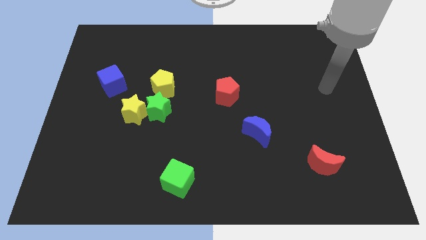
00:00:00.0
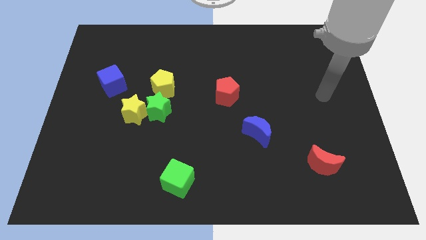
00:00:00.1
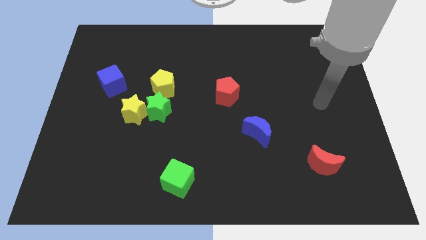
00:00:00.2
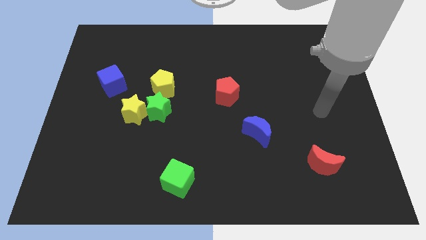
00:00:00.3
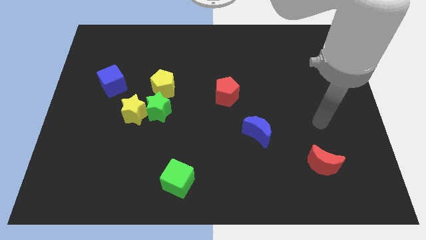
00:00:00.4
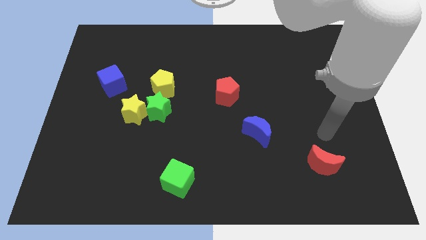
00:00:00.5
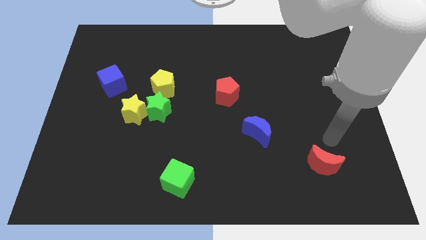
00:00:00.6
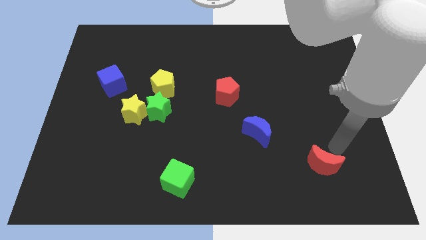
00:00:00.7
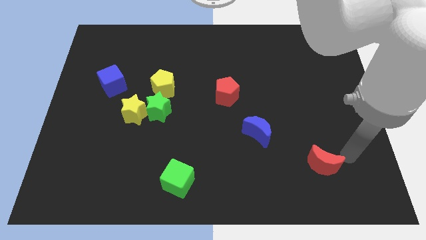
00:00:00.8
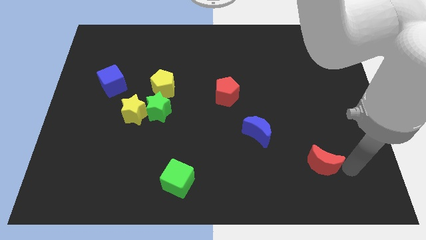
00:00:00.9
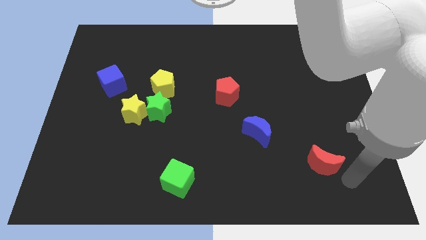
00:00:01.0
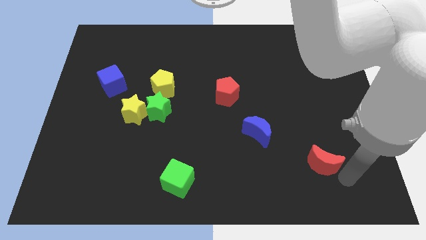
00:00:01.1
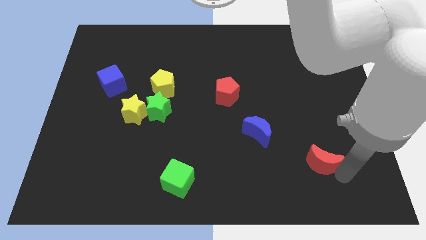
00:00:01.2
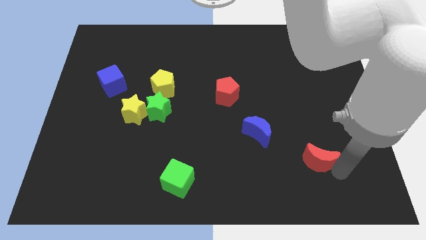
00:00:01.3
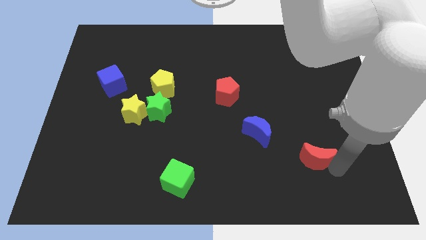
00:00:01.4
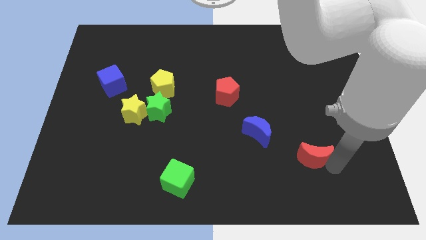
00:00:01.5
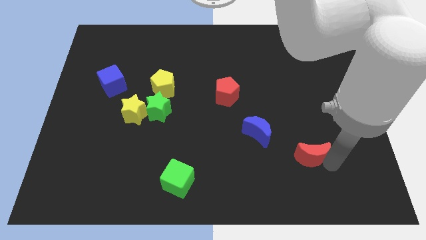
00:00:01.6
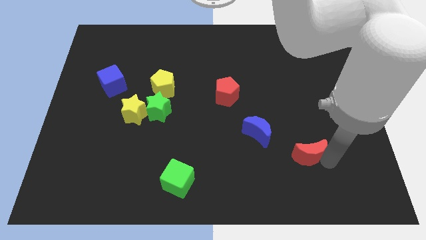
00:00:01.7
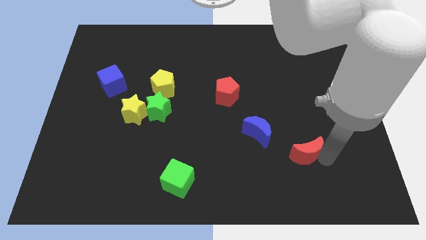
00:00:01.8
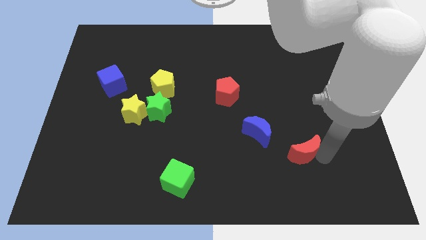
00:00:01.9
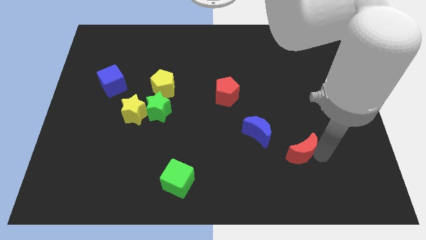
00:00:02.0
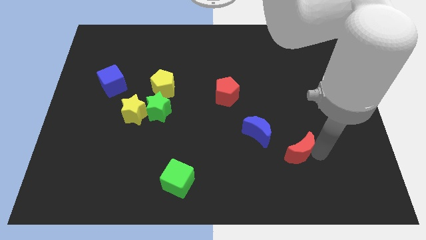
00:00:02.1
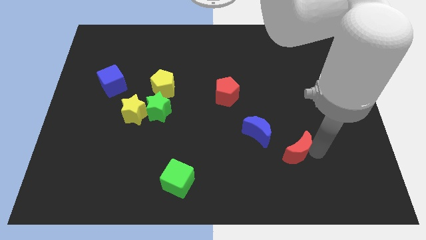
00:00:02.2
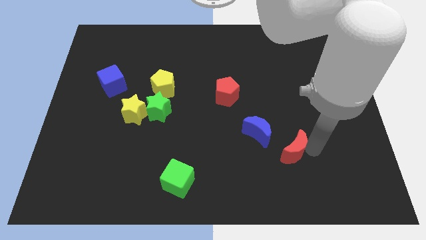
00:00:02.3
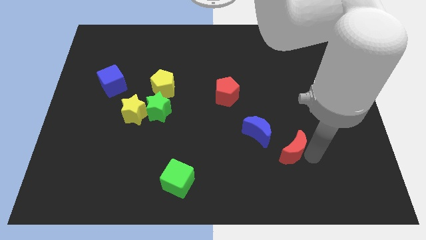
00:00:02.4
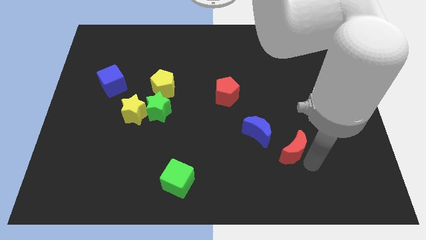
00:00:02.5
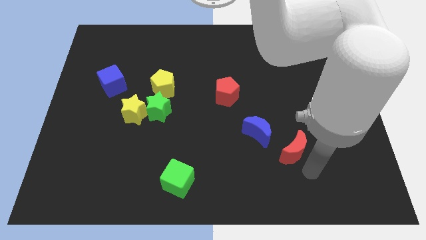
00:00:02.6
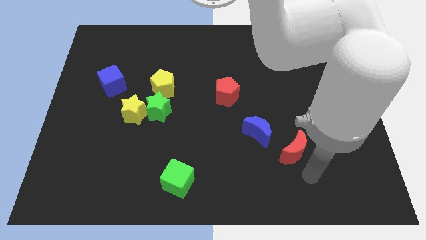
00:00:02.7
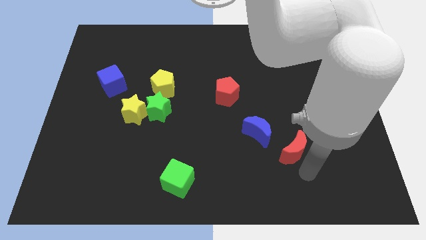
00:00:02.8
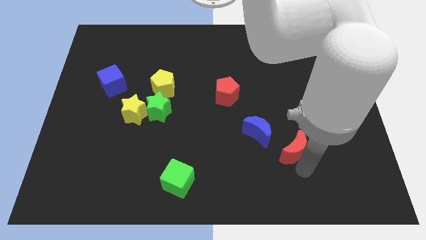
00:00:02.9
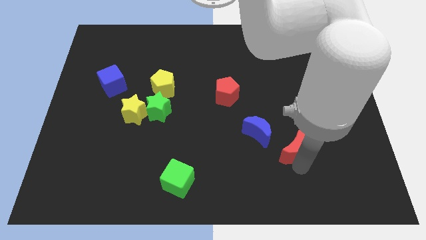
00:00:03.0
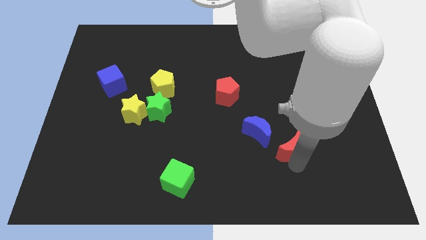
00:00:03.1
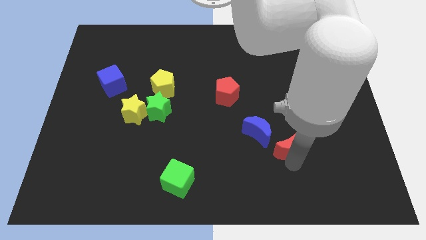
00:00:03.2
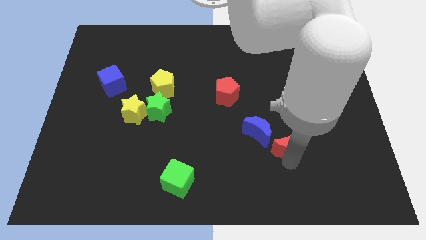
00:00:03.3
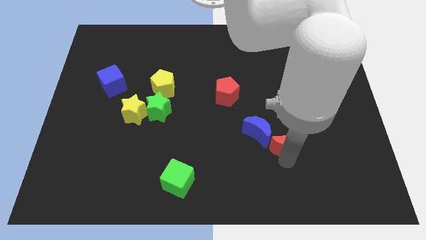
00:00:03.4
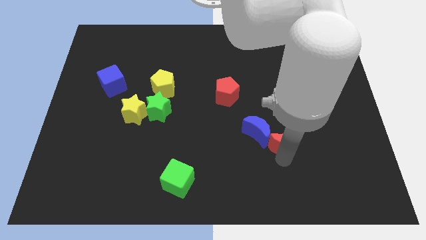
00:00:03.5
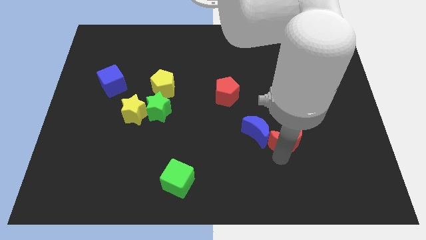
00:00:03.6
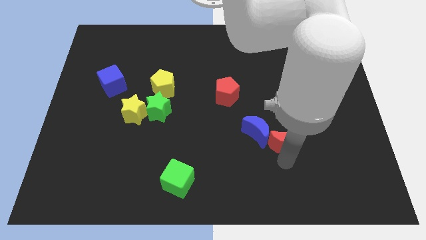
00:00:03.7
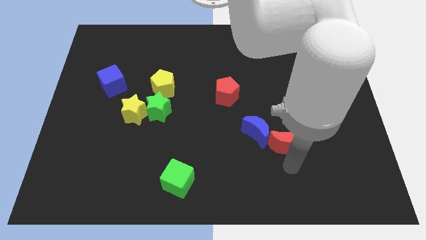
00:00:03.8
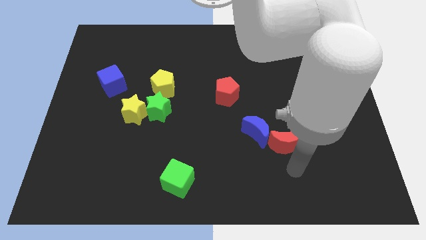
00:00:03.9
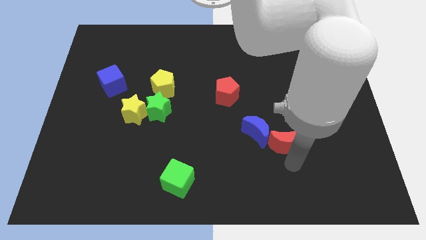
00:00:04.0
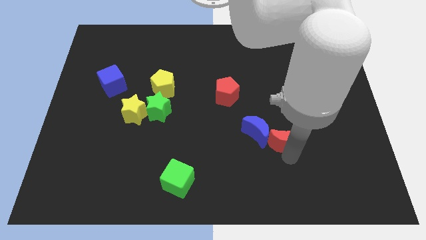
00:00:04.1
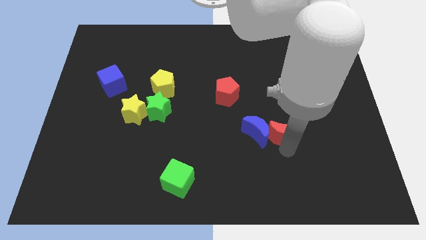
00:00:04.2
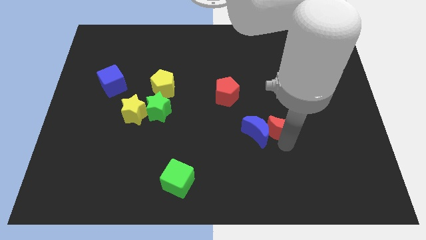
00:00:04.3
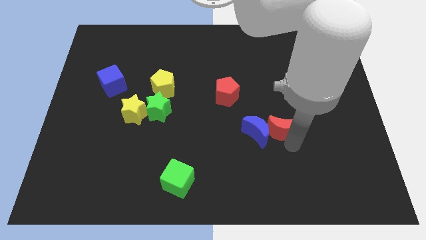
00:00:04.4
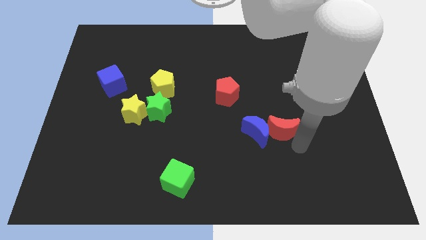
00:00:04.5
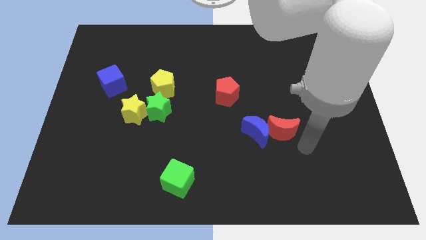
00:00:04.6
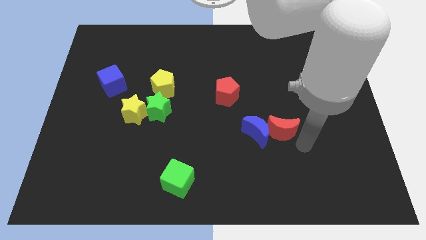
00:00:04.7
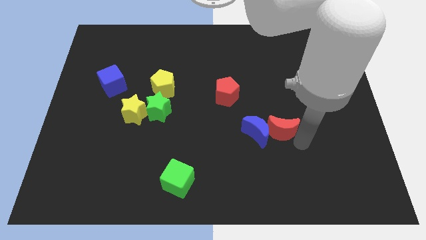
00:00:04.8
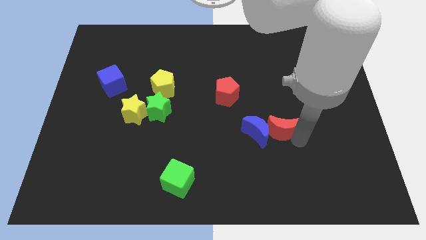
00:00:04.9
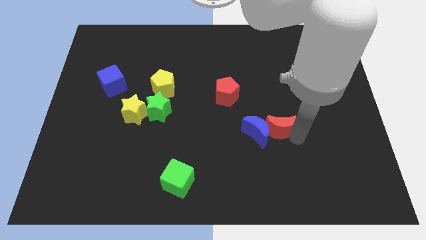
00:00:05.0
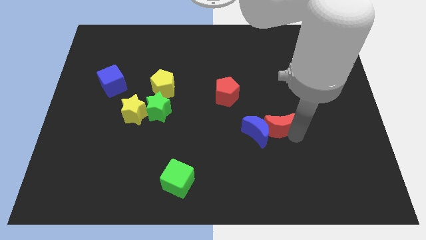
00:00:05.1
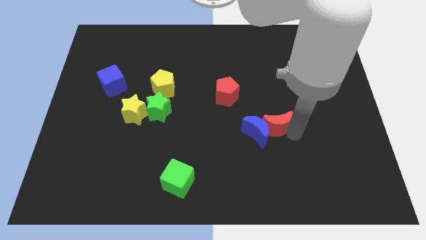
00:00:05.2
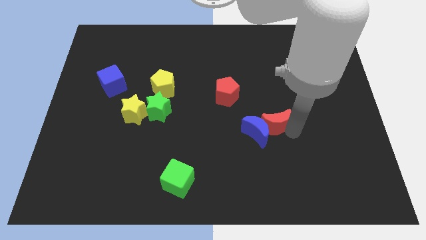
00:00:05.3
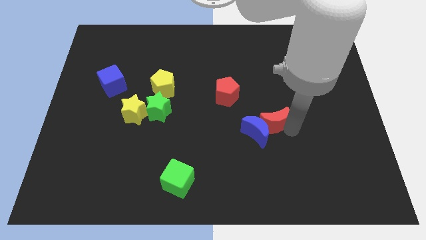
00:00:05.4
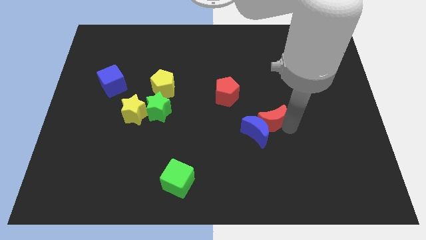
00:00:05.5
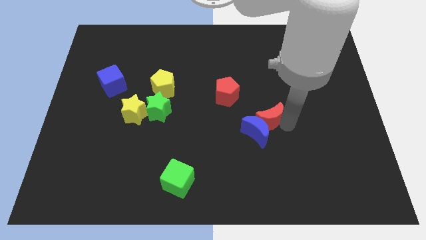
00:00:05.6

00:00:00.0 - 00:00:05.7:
slide the red moon to the bottom right of the red pentagon

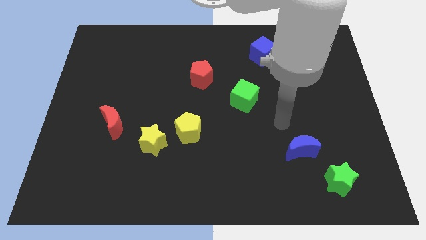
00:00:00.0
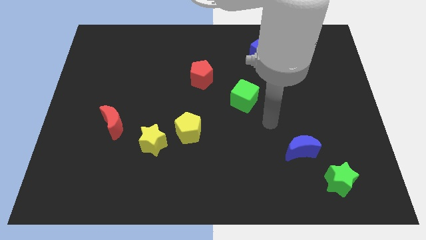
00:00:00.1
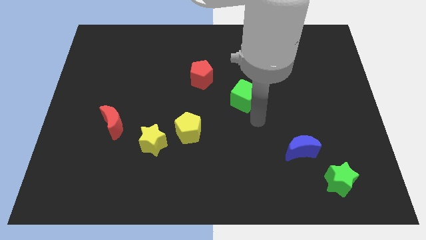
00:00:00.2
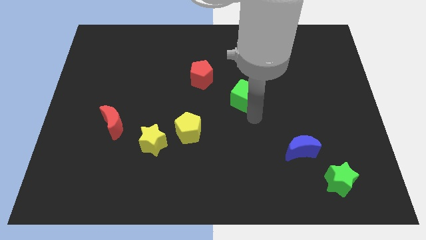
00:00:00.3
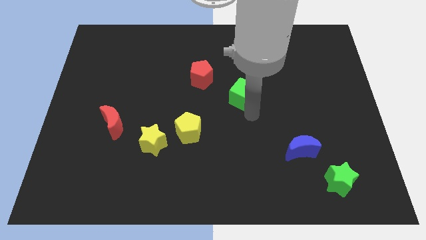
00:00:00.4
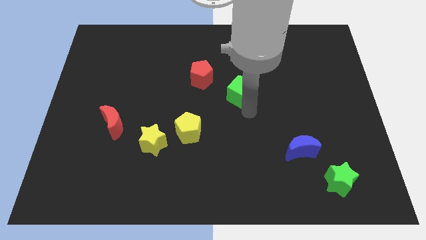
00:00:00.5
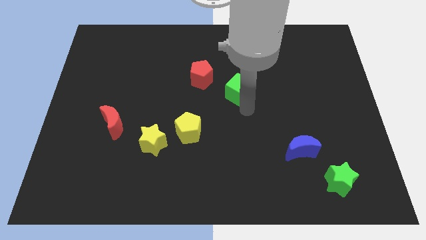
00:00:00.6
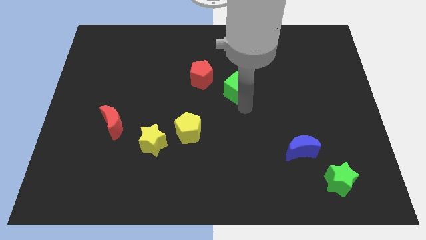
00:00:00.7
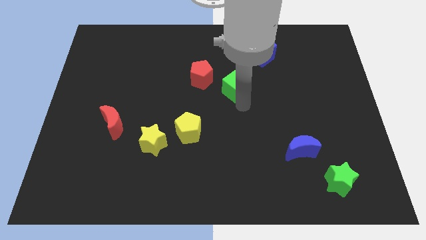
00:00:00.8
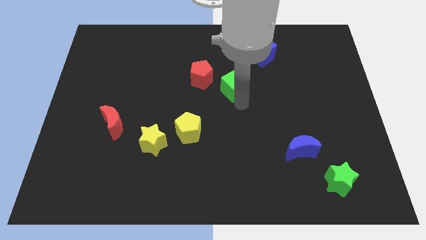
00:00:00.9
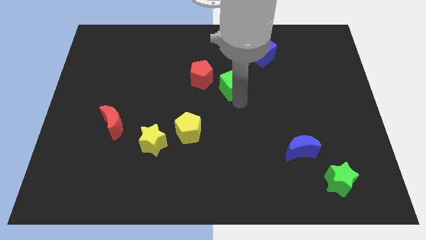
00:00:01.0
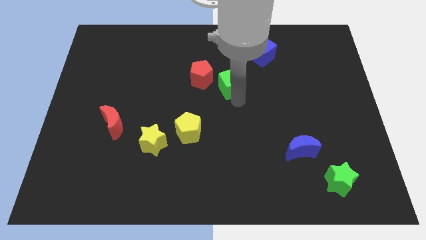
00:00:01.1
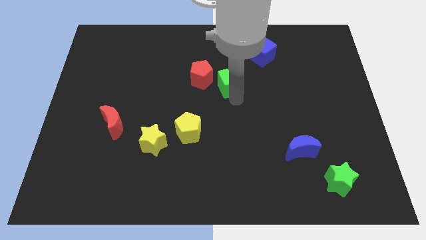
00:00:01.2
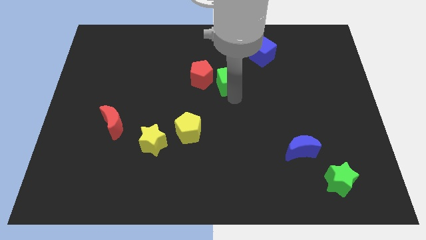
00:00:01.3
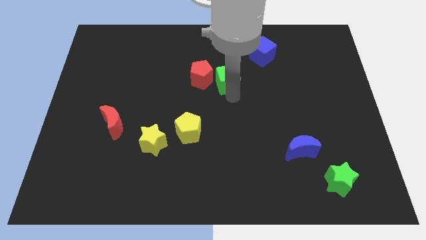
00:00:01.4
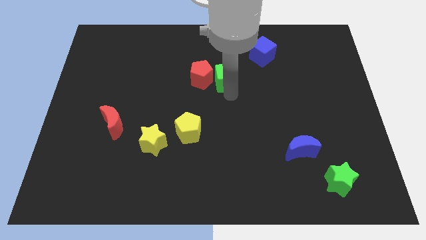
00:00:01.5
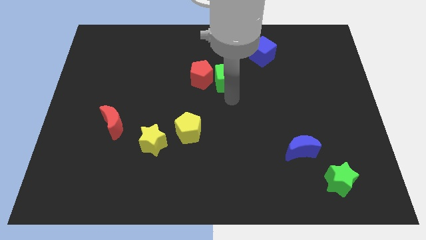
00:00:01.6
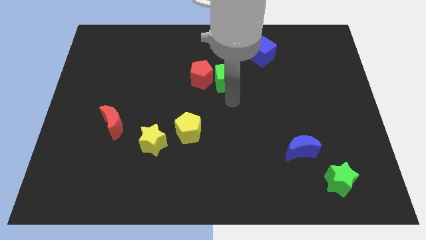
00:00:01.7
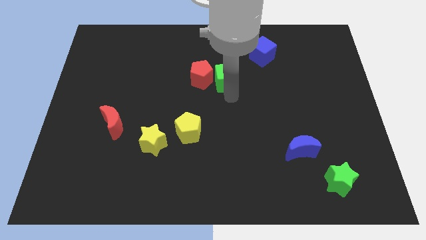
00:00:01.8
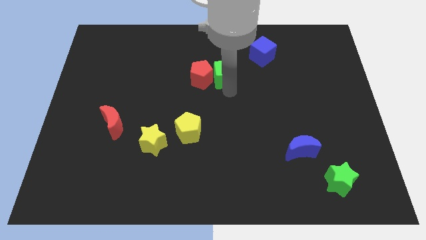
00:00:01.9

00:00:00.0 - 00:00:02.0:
move the green cube diagonally up and to the right of the red pentagon
